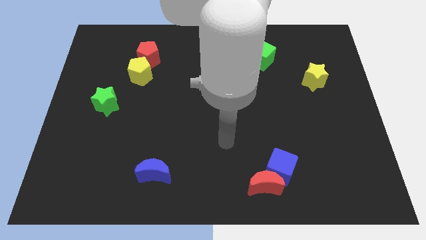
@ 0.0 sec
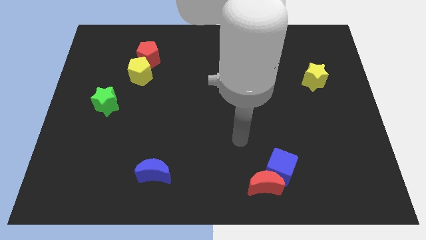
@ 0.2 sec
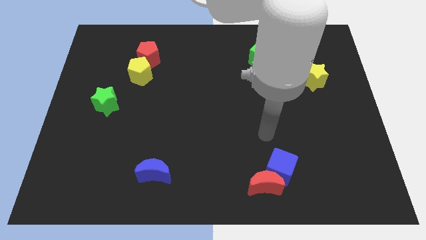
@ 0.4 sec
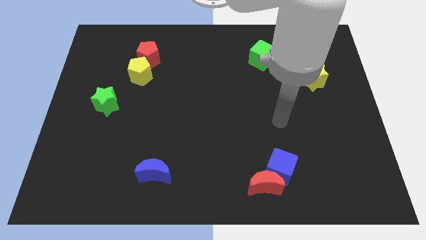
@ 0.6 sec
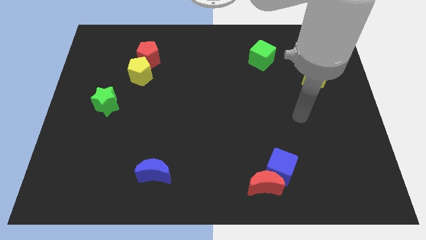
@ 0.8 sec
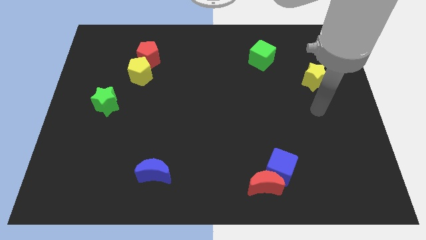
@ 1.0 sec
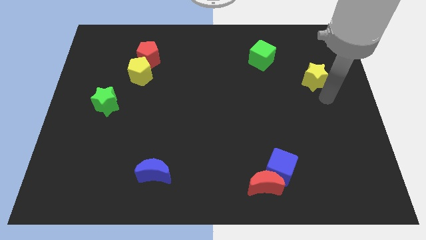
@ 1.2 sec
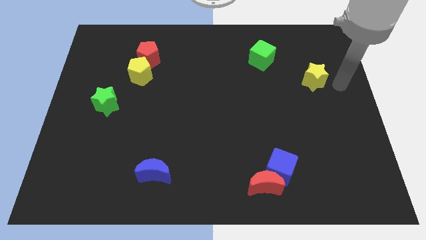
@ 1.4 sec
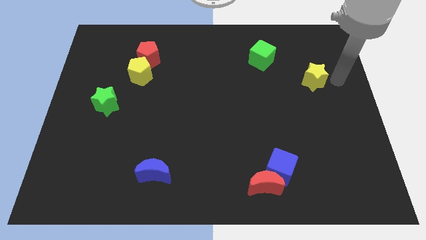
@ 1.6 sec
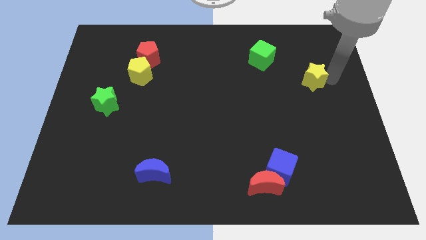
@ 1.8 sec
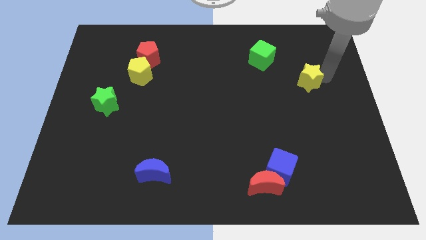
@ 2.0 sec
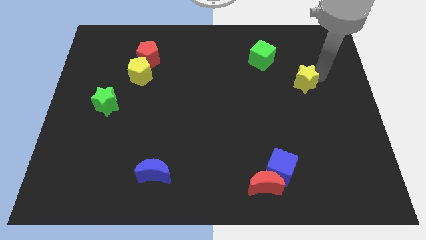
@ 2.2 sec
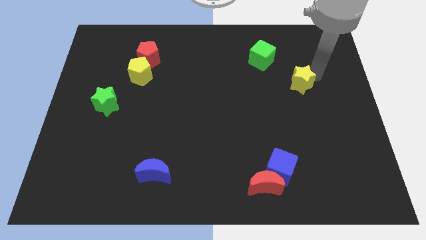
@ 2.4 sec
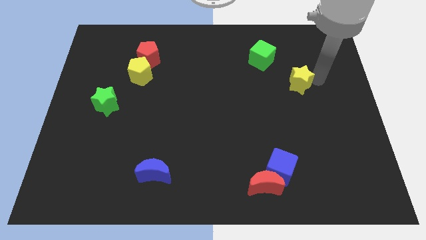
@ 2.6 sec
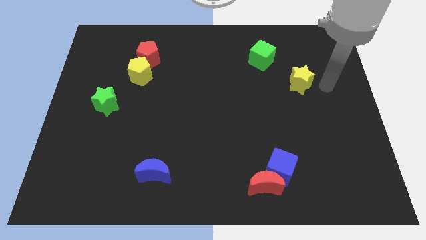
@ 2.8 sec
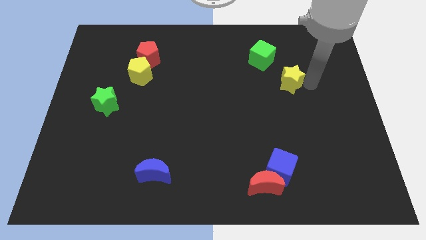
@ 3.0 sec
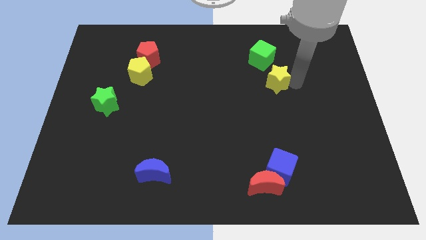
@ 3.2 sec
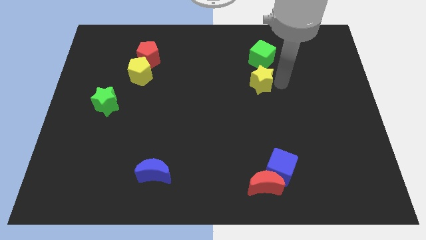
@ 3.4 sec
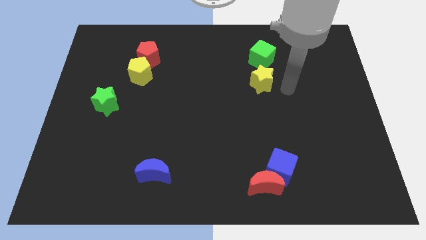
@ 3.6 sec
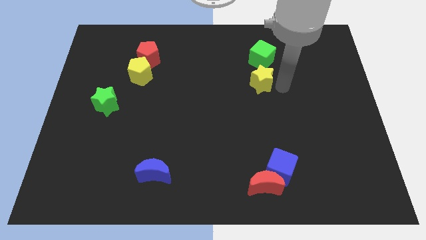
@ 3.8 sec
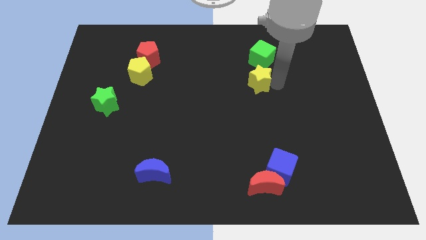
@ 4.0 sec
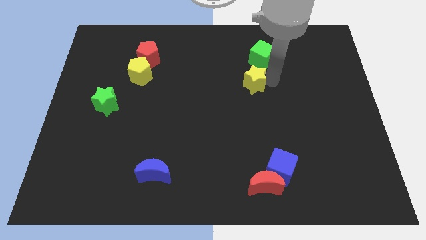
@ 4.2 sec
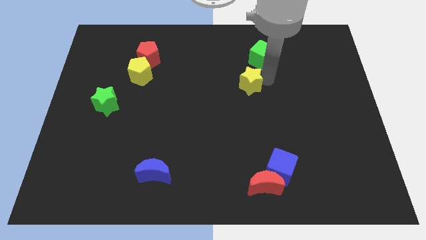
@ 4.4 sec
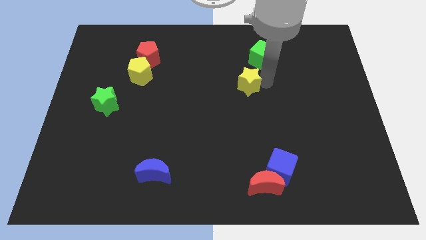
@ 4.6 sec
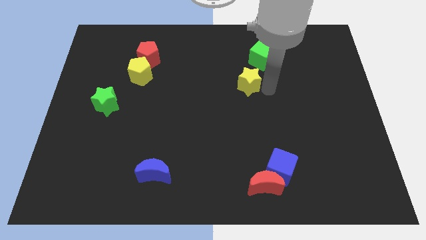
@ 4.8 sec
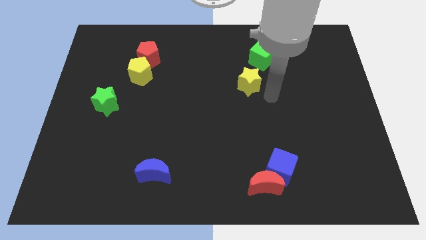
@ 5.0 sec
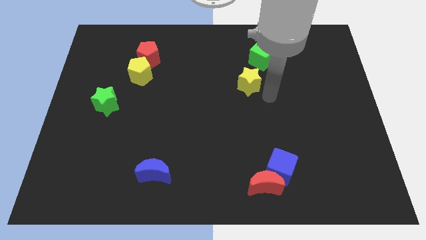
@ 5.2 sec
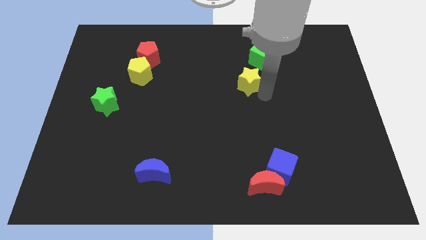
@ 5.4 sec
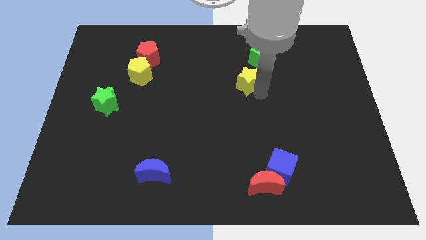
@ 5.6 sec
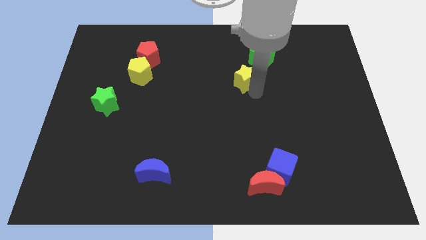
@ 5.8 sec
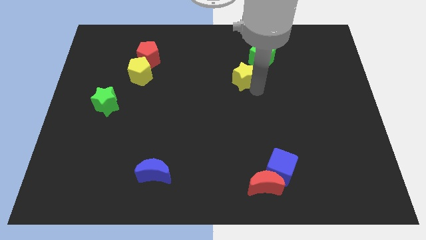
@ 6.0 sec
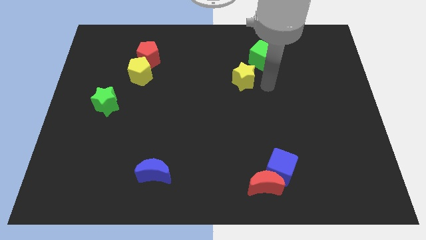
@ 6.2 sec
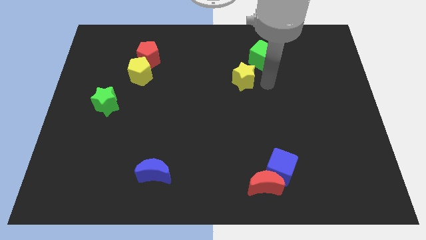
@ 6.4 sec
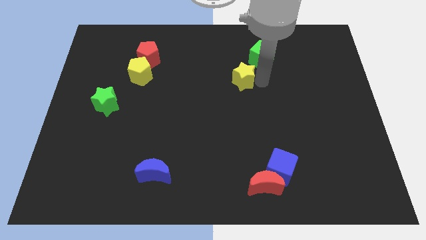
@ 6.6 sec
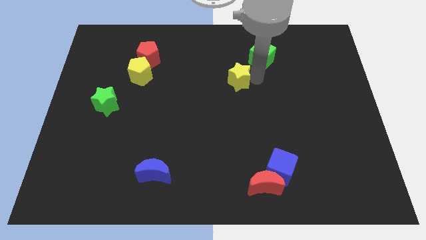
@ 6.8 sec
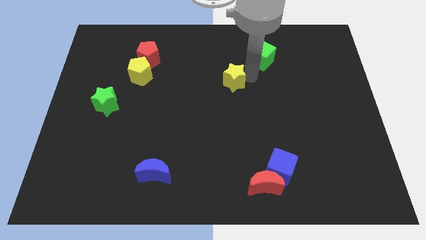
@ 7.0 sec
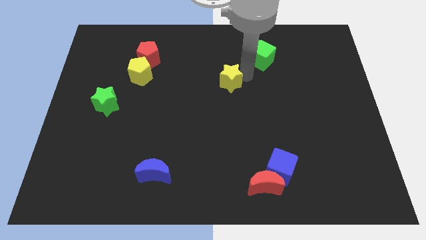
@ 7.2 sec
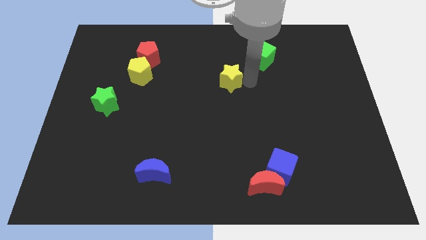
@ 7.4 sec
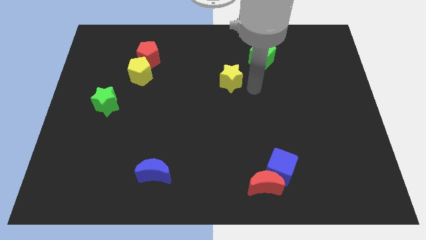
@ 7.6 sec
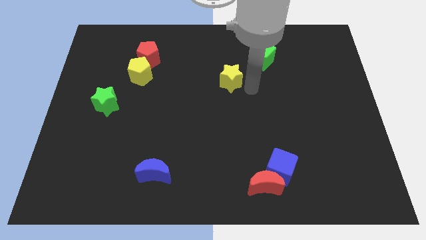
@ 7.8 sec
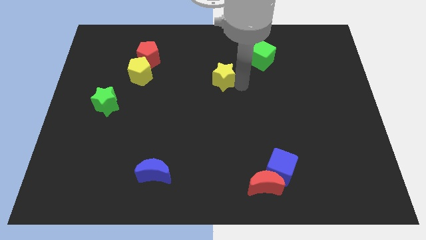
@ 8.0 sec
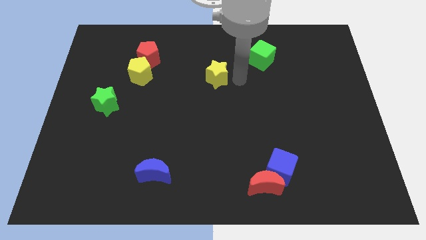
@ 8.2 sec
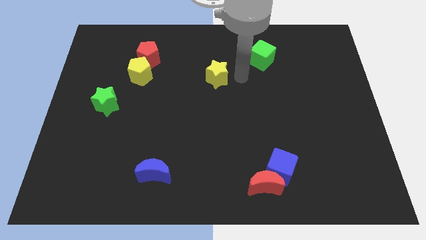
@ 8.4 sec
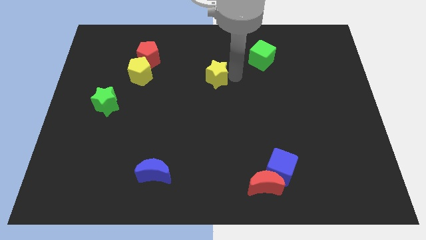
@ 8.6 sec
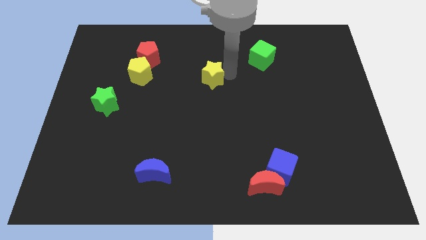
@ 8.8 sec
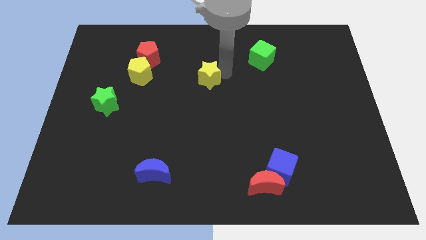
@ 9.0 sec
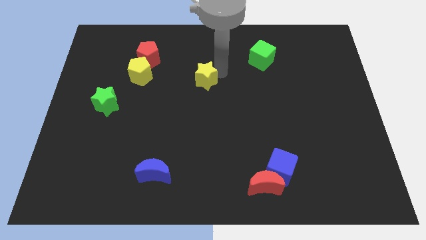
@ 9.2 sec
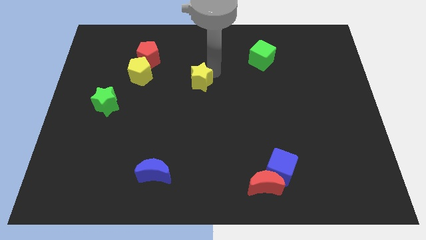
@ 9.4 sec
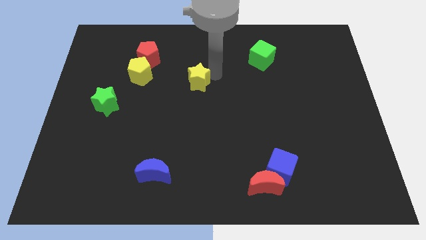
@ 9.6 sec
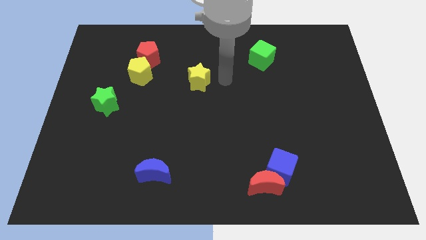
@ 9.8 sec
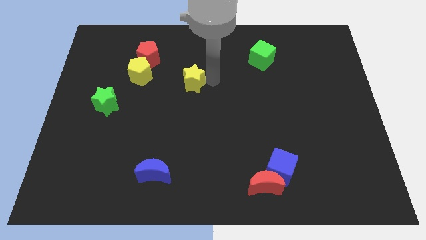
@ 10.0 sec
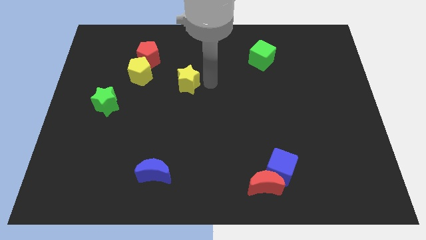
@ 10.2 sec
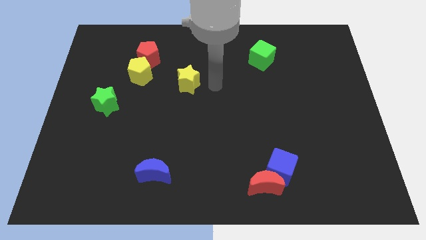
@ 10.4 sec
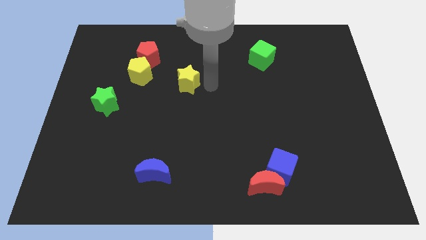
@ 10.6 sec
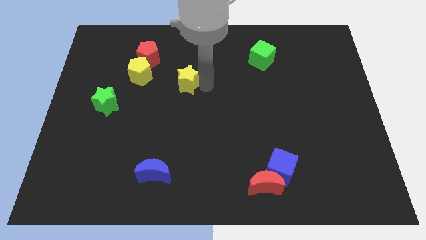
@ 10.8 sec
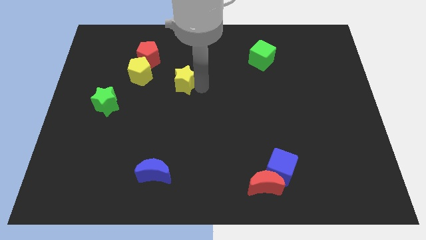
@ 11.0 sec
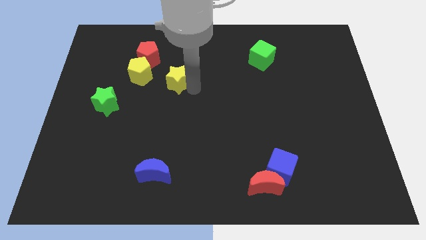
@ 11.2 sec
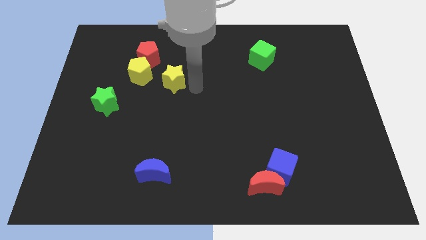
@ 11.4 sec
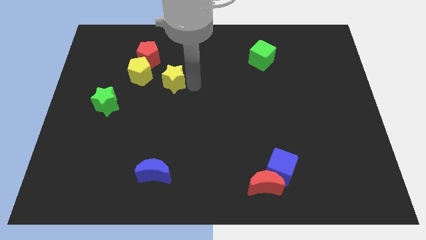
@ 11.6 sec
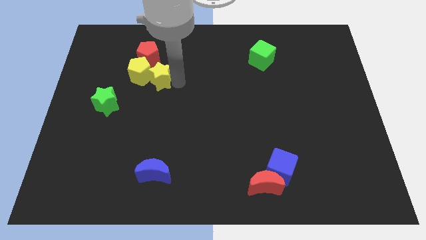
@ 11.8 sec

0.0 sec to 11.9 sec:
slide the yellow star next to the yellow pentagon

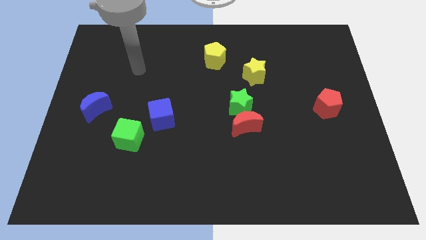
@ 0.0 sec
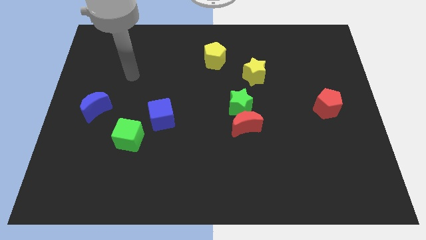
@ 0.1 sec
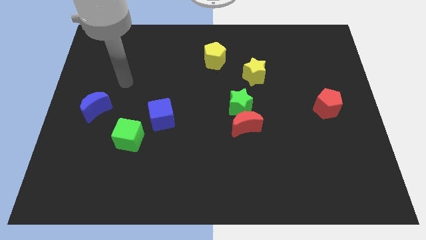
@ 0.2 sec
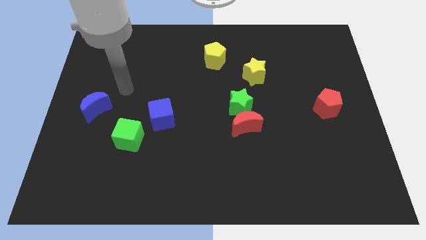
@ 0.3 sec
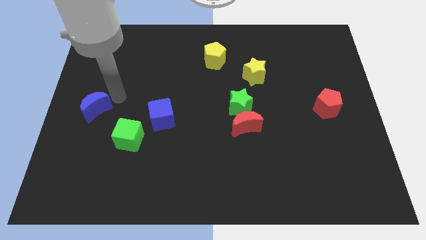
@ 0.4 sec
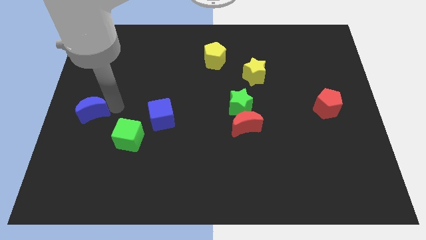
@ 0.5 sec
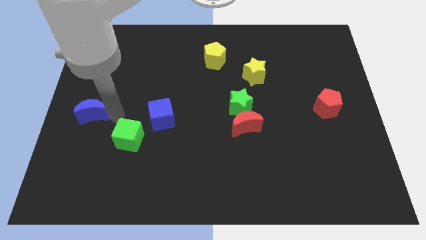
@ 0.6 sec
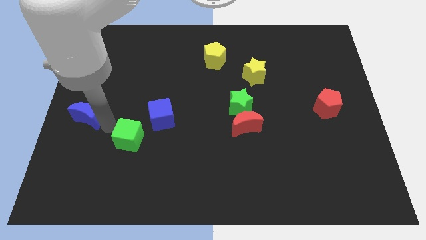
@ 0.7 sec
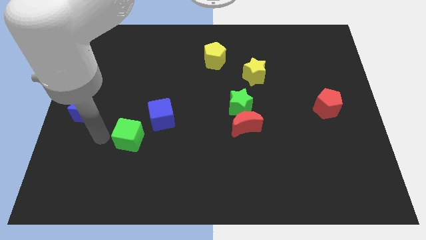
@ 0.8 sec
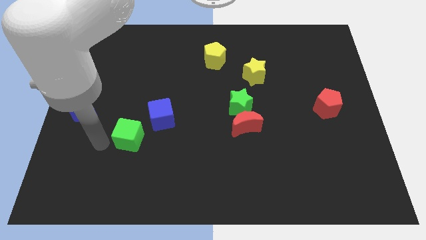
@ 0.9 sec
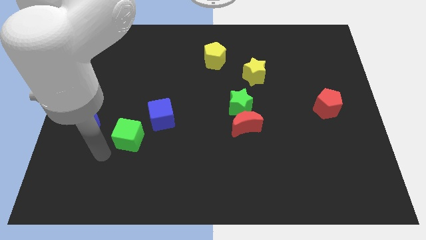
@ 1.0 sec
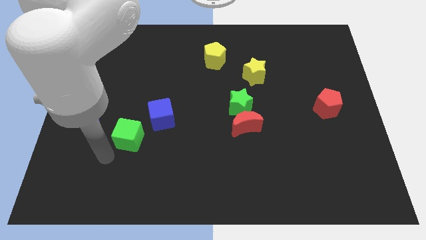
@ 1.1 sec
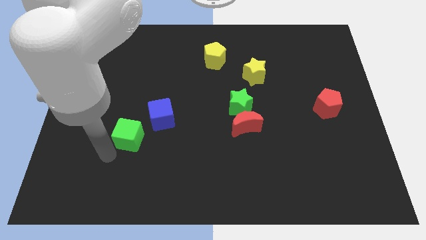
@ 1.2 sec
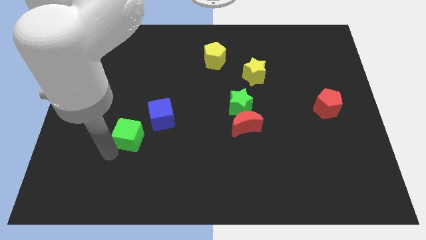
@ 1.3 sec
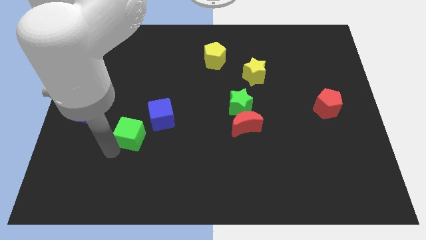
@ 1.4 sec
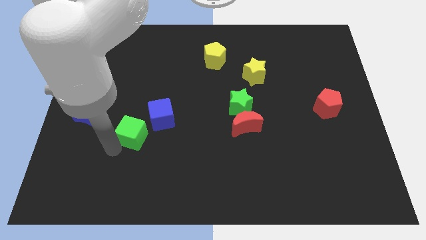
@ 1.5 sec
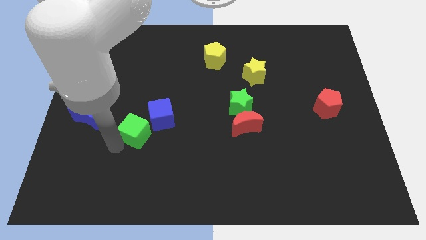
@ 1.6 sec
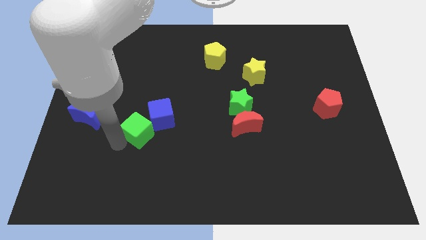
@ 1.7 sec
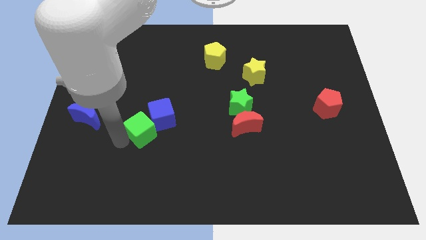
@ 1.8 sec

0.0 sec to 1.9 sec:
put the green cube towards the blue cube
